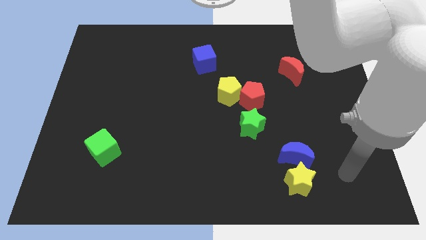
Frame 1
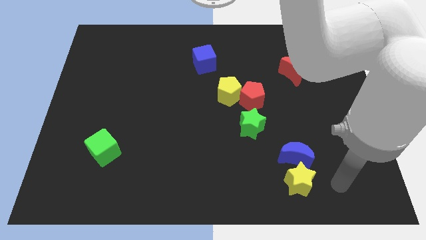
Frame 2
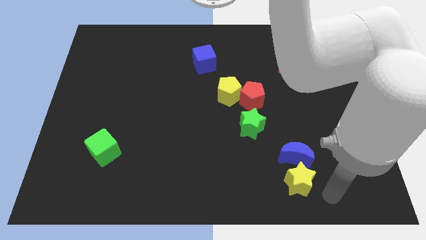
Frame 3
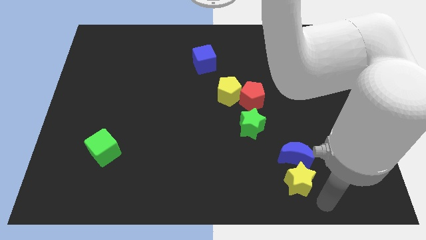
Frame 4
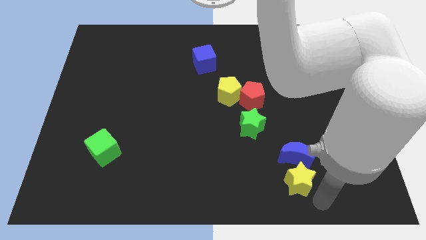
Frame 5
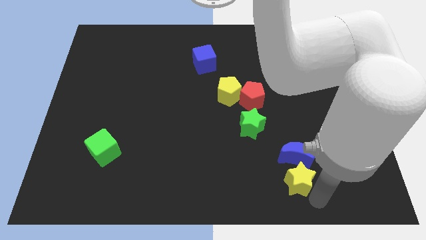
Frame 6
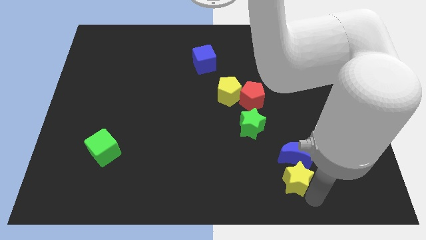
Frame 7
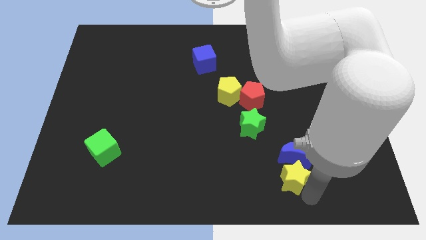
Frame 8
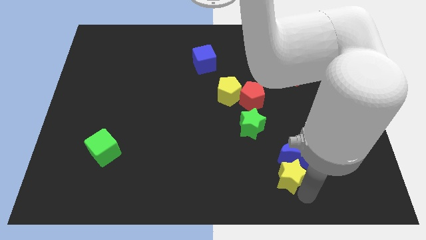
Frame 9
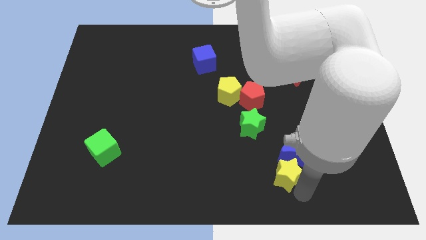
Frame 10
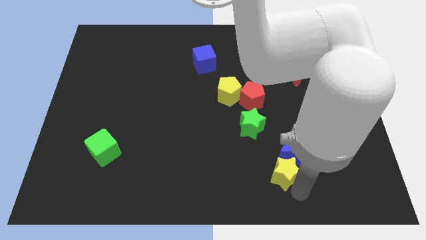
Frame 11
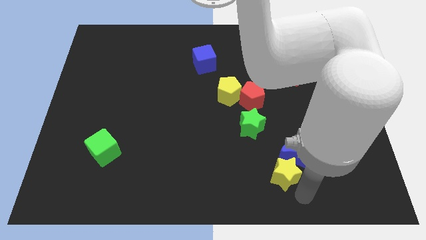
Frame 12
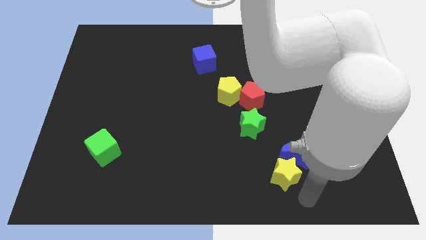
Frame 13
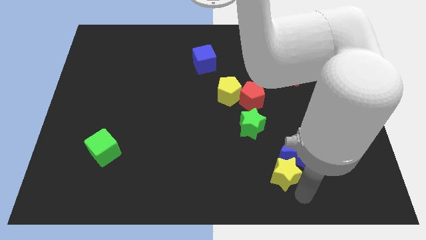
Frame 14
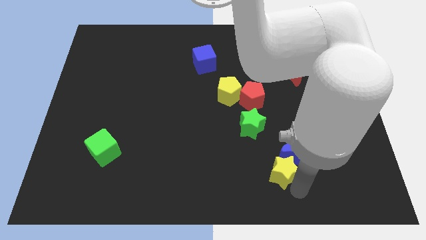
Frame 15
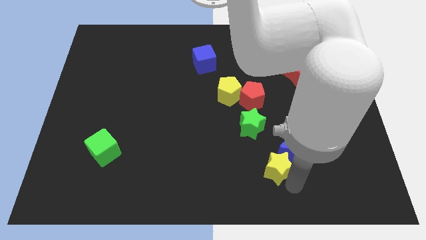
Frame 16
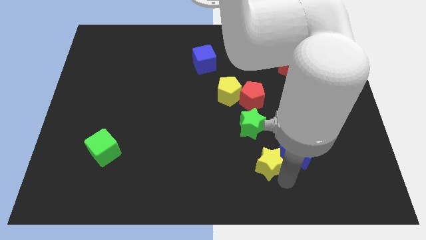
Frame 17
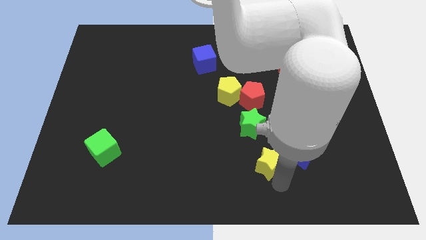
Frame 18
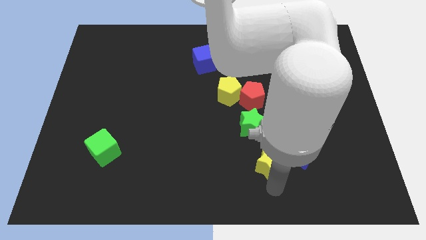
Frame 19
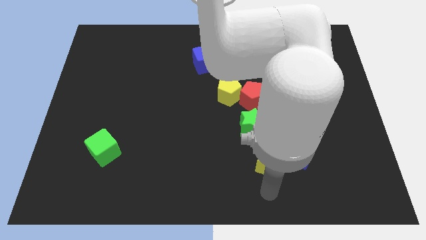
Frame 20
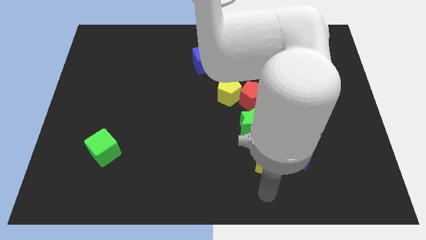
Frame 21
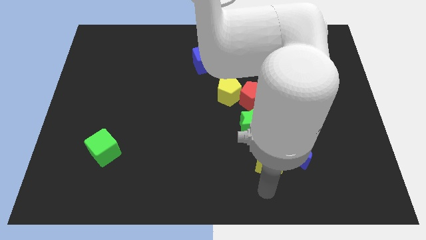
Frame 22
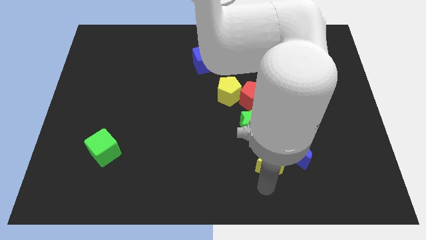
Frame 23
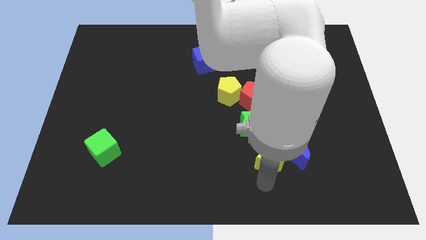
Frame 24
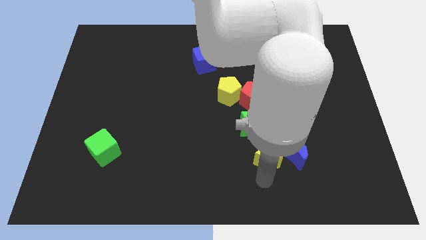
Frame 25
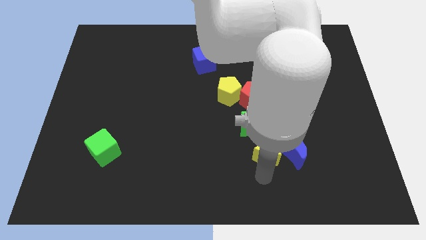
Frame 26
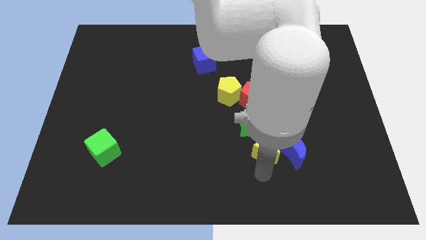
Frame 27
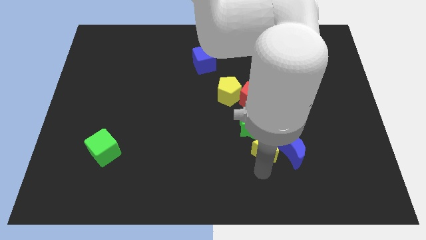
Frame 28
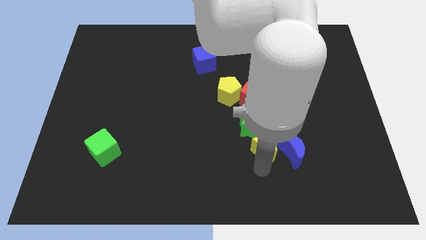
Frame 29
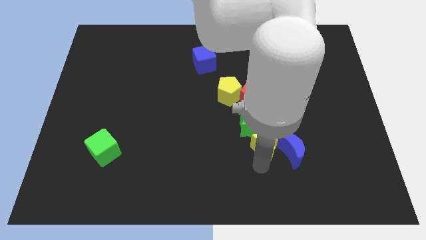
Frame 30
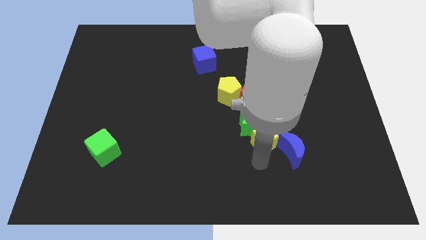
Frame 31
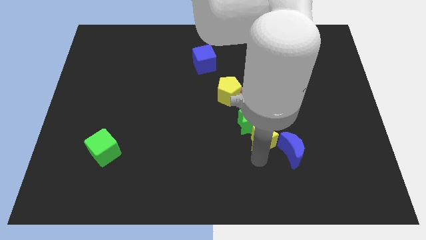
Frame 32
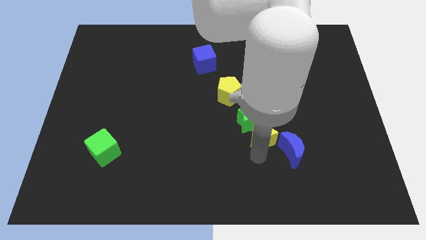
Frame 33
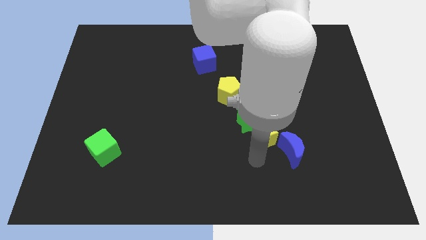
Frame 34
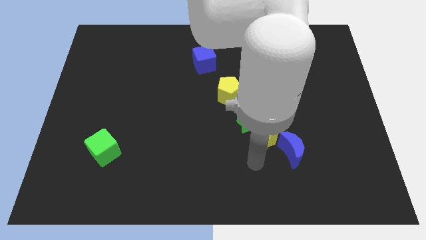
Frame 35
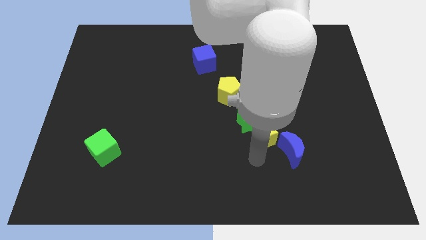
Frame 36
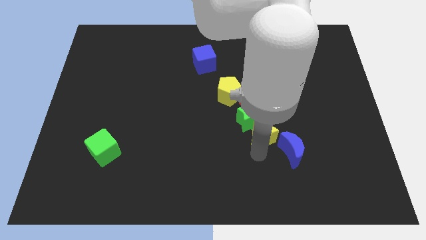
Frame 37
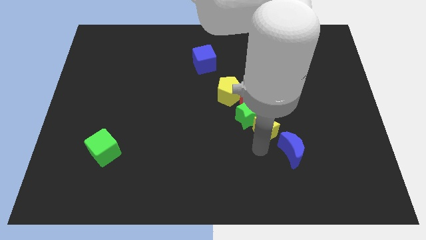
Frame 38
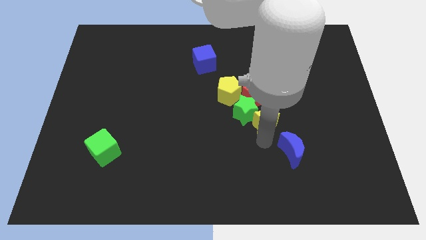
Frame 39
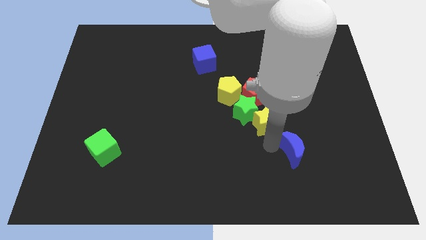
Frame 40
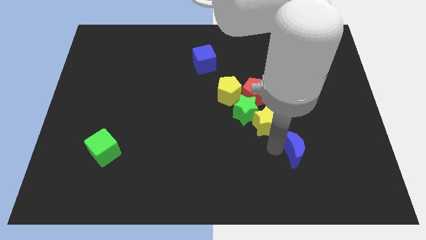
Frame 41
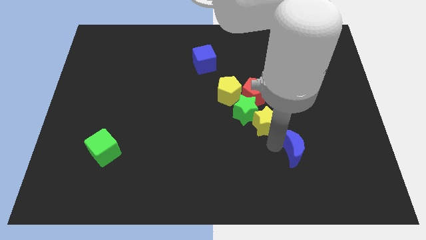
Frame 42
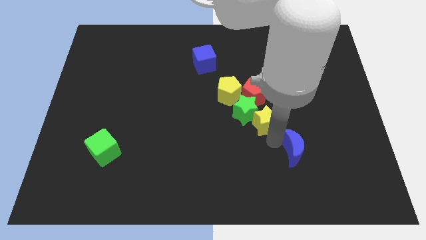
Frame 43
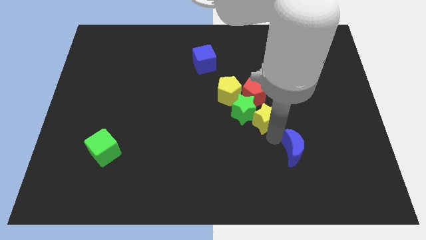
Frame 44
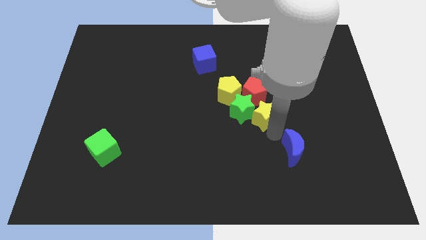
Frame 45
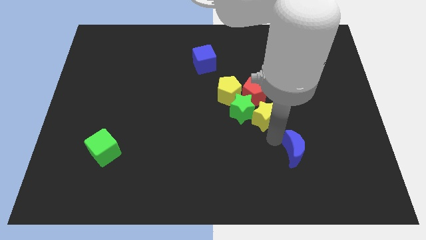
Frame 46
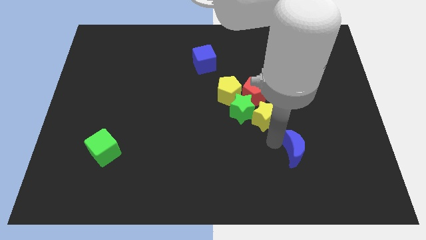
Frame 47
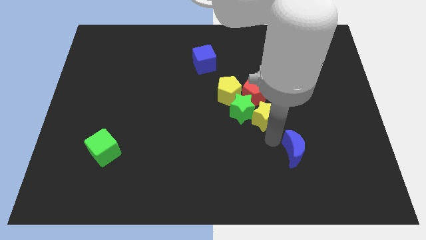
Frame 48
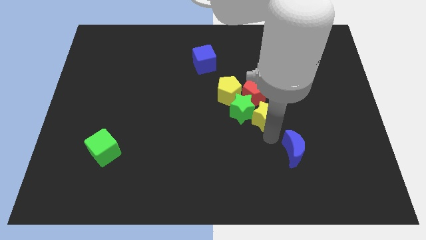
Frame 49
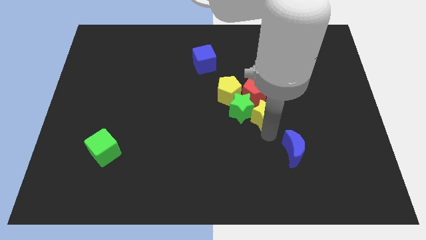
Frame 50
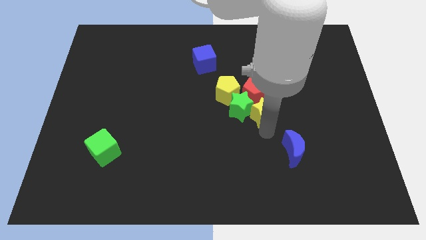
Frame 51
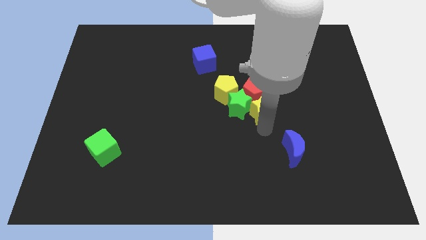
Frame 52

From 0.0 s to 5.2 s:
push the yellow star next to the red pentagon

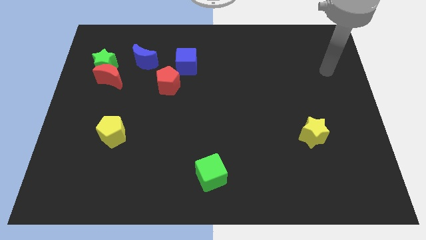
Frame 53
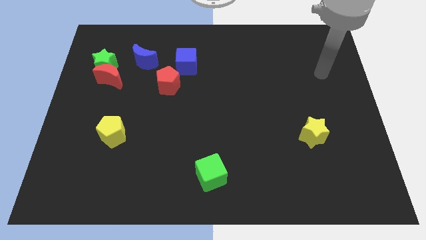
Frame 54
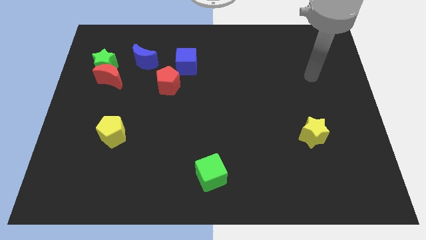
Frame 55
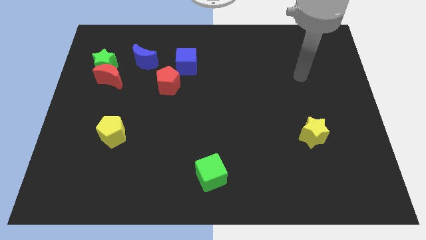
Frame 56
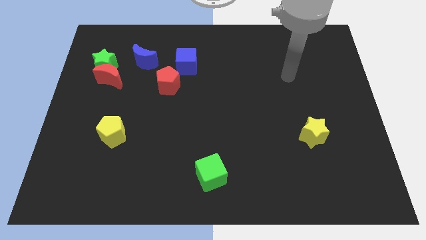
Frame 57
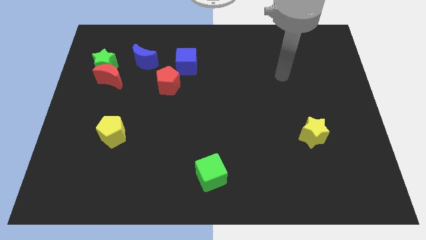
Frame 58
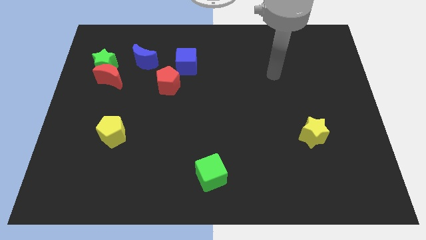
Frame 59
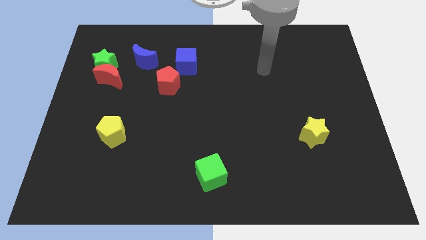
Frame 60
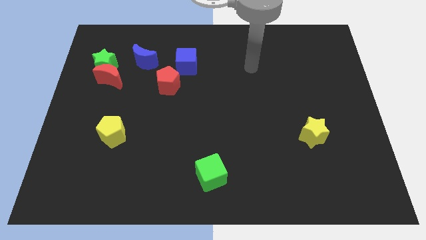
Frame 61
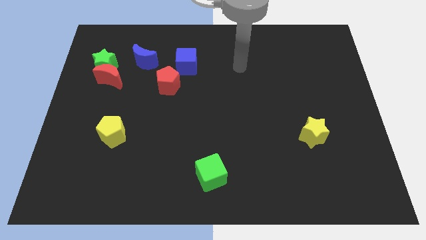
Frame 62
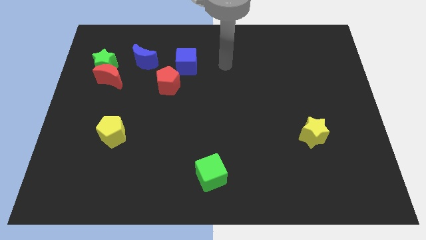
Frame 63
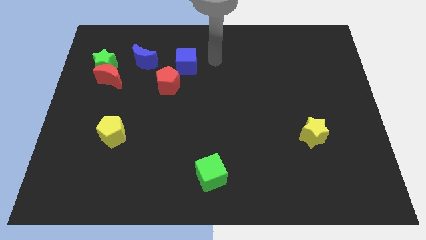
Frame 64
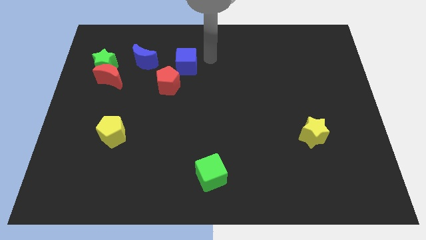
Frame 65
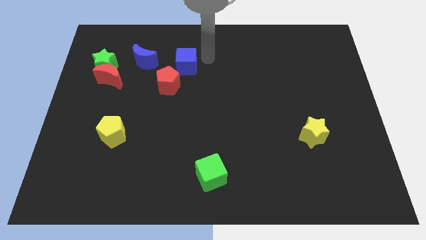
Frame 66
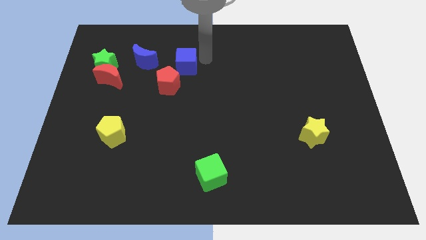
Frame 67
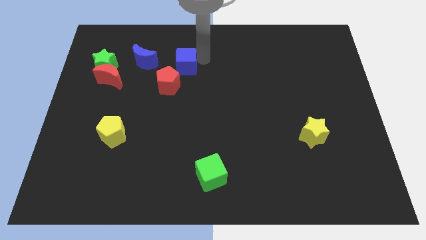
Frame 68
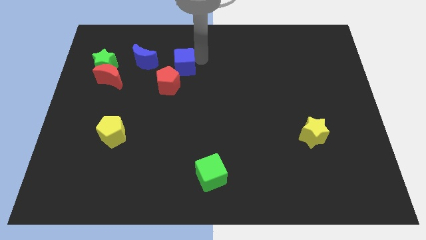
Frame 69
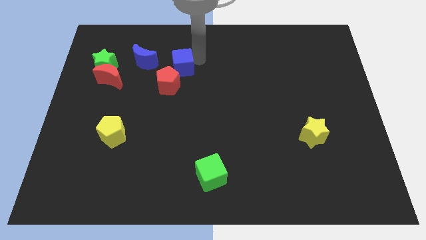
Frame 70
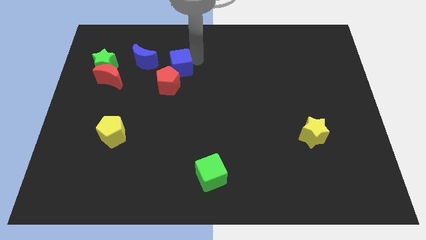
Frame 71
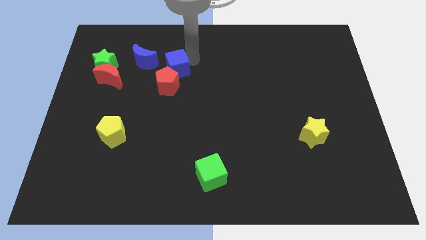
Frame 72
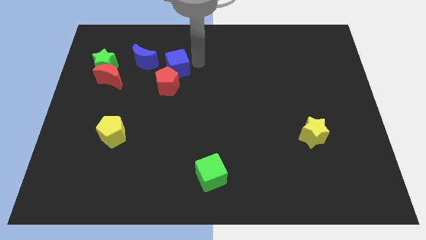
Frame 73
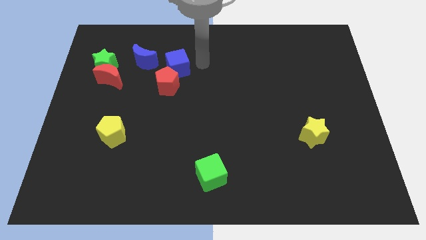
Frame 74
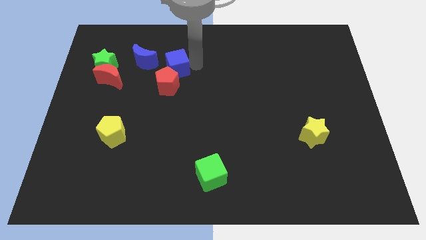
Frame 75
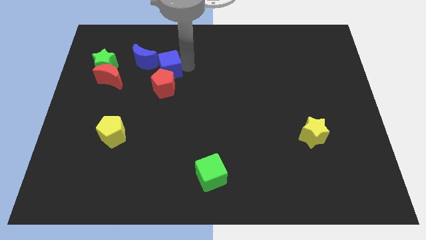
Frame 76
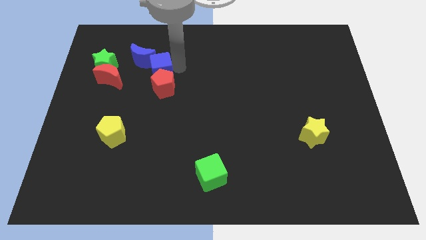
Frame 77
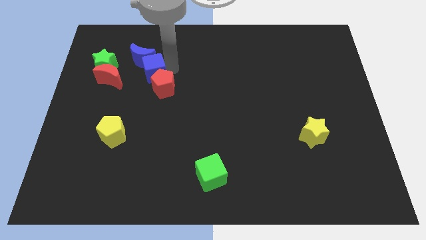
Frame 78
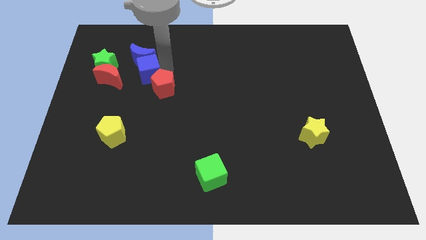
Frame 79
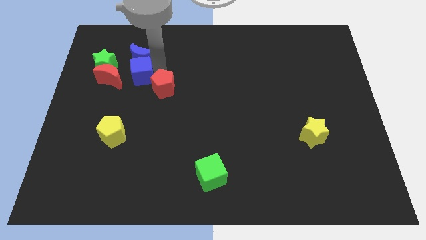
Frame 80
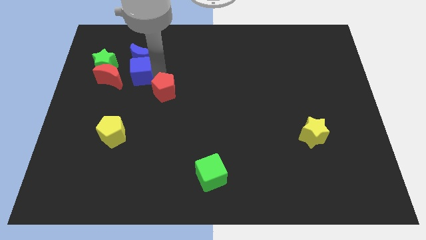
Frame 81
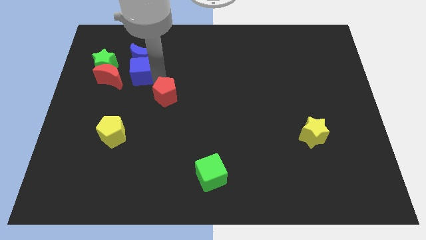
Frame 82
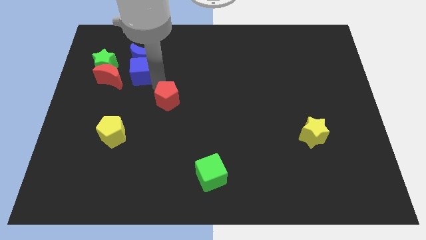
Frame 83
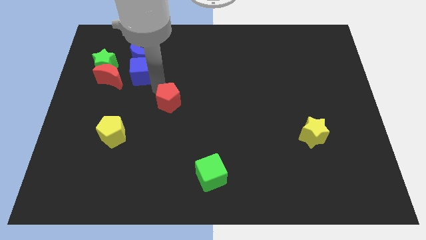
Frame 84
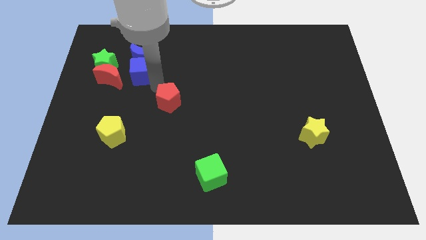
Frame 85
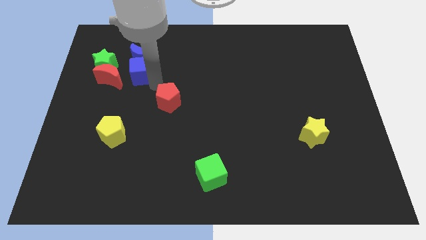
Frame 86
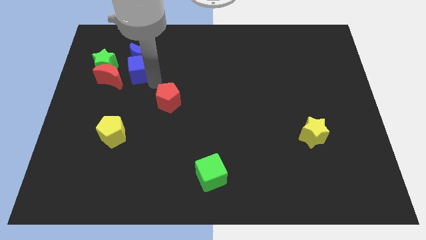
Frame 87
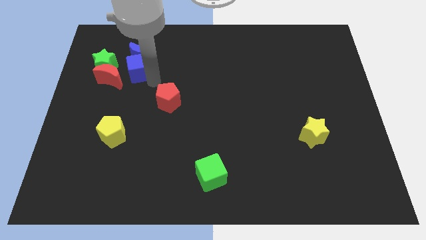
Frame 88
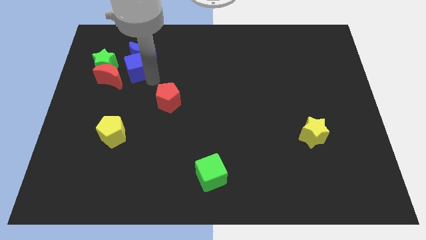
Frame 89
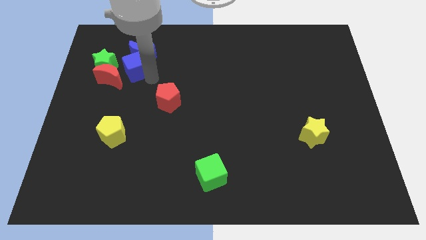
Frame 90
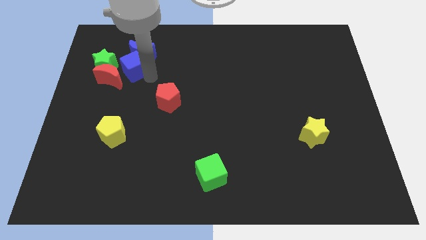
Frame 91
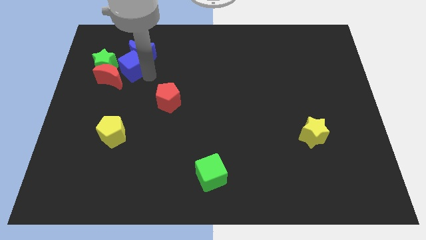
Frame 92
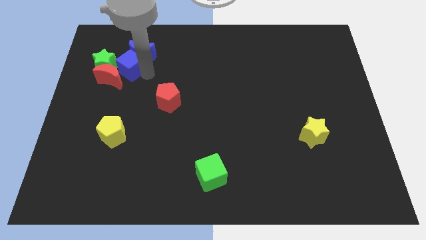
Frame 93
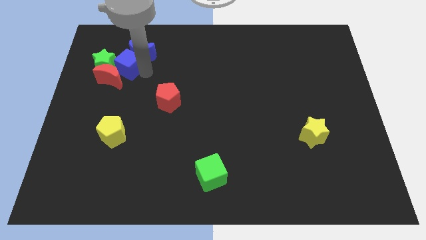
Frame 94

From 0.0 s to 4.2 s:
slide the blue cube to the green star
